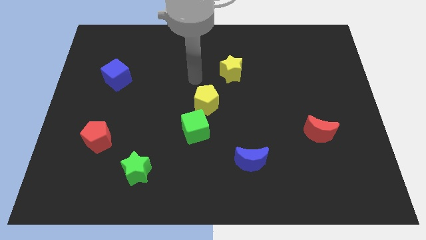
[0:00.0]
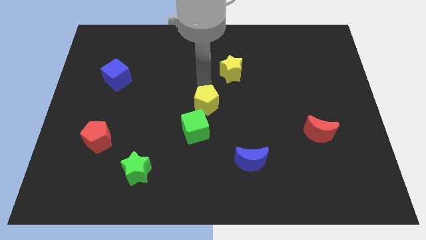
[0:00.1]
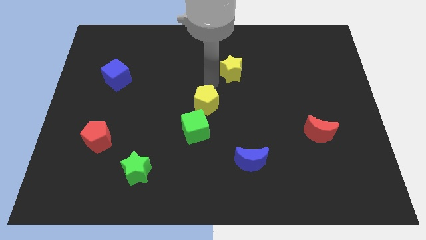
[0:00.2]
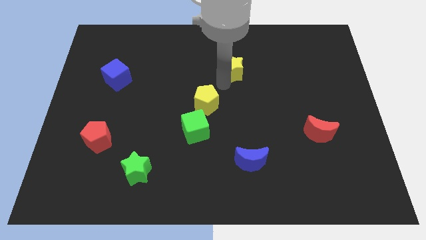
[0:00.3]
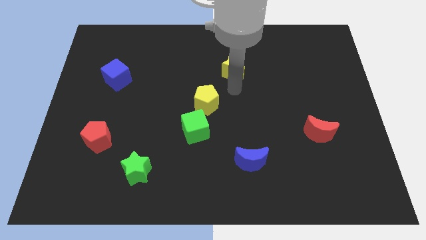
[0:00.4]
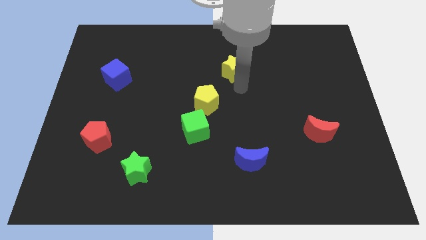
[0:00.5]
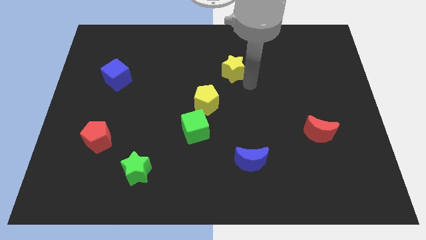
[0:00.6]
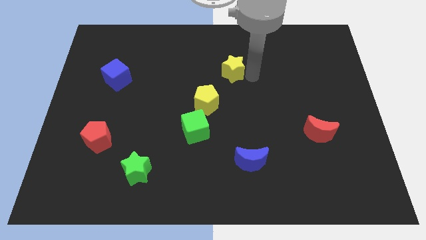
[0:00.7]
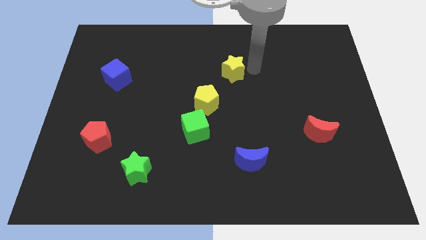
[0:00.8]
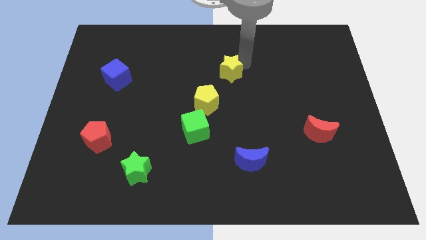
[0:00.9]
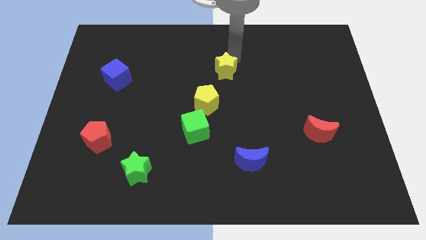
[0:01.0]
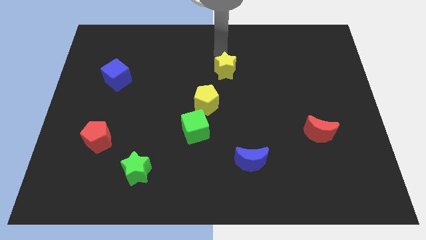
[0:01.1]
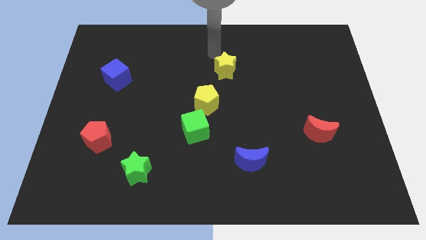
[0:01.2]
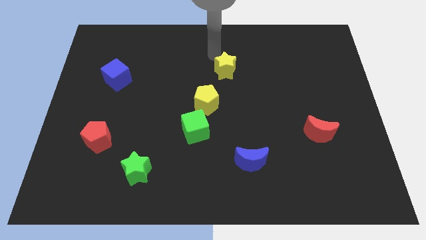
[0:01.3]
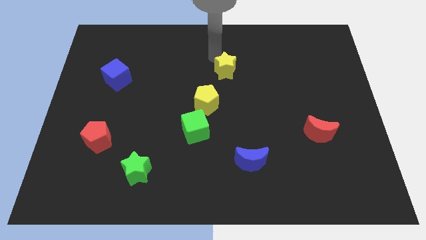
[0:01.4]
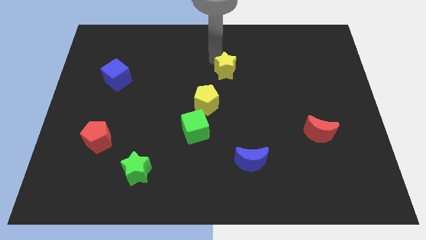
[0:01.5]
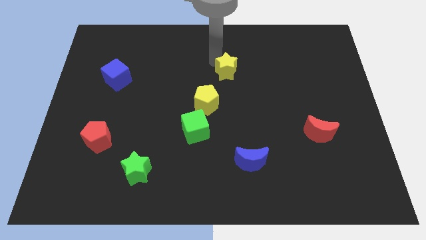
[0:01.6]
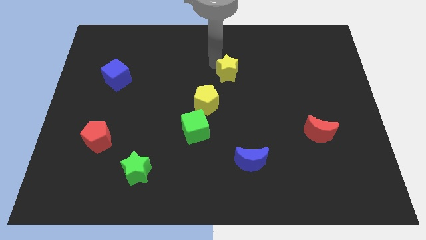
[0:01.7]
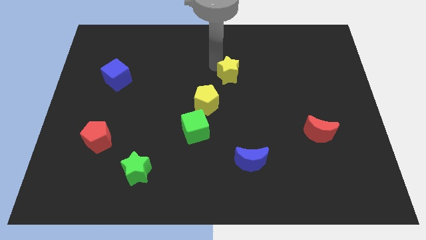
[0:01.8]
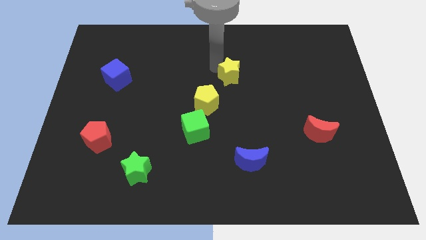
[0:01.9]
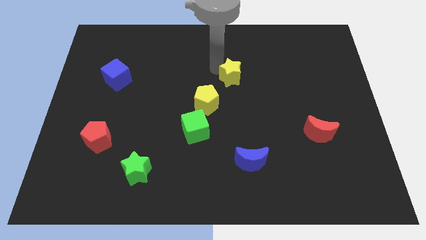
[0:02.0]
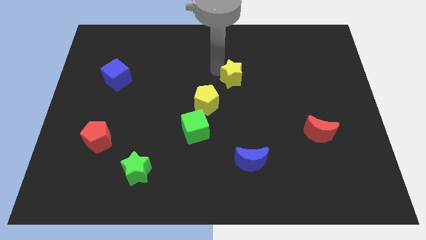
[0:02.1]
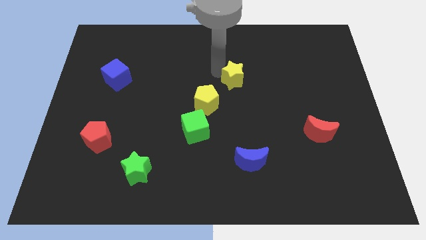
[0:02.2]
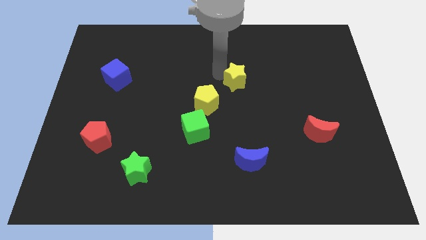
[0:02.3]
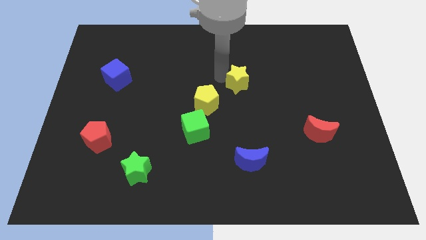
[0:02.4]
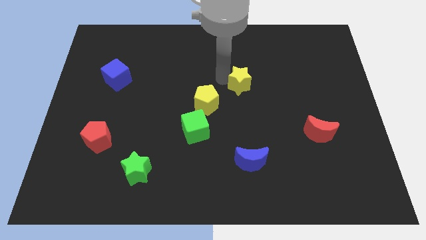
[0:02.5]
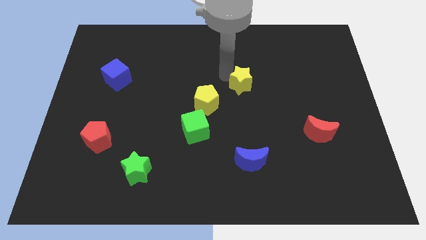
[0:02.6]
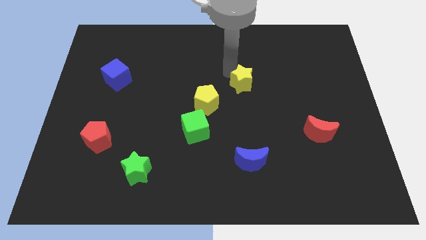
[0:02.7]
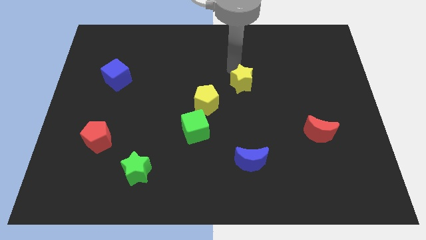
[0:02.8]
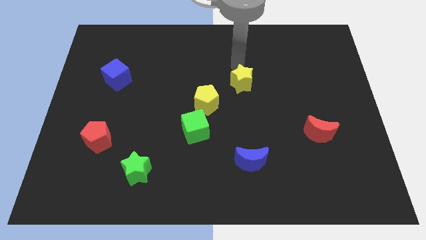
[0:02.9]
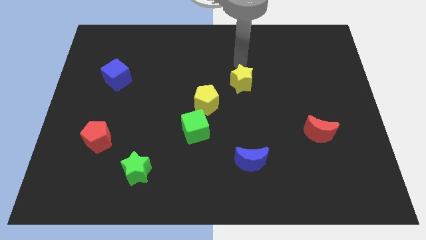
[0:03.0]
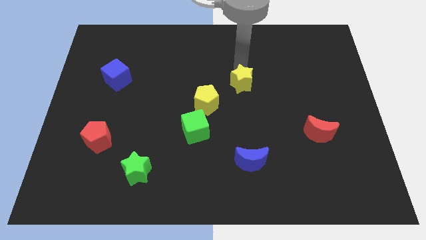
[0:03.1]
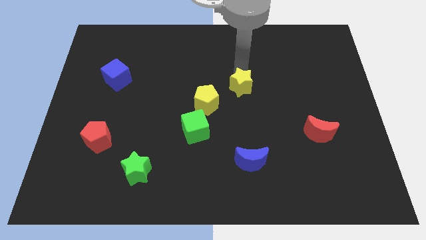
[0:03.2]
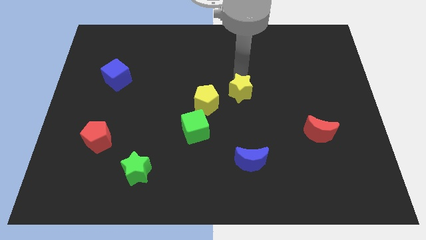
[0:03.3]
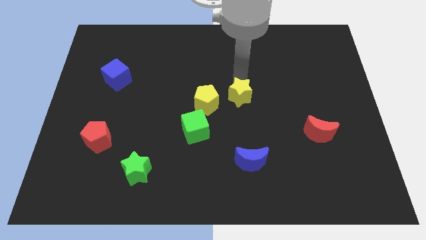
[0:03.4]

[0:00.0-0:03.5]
push the yellow star somewhat downwards

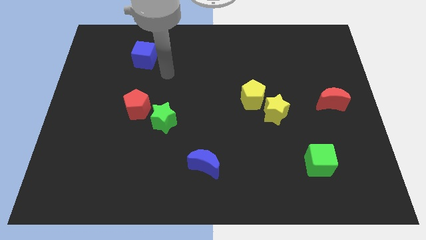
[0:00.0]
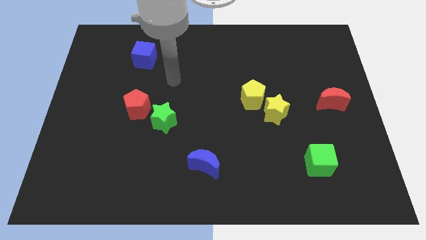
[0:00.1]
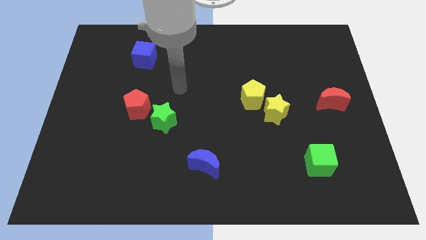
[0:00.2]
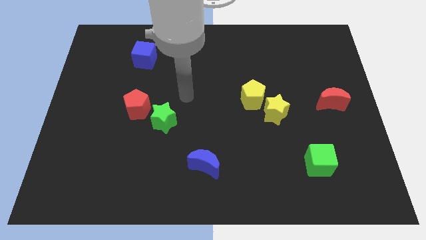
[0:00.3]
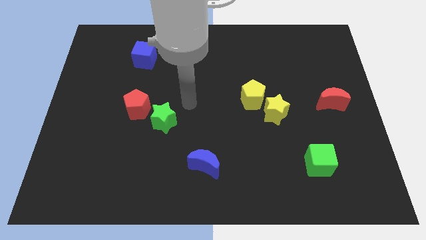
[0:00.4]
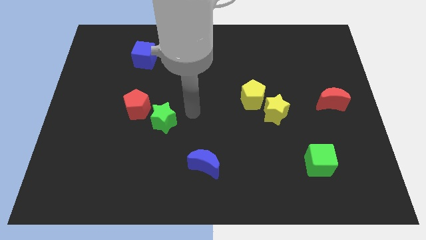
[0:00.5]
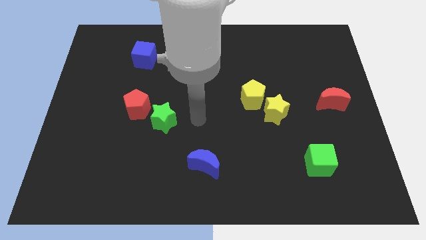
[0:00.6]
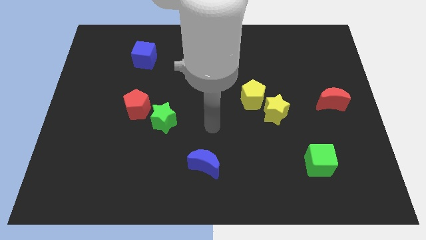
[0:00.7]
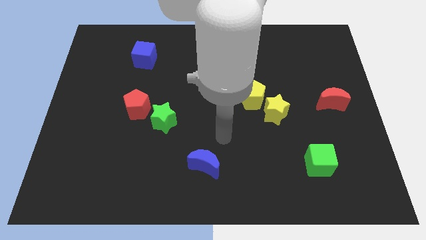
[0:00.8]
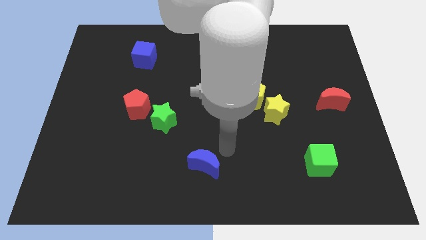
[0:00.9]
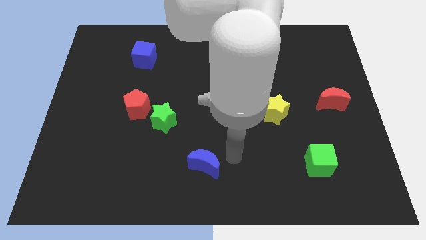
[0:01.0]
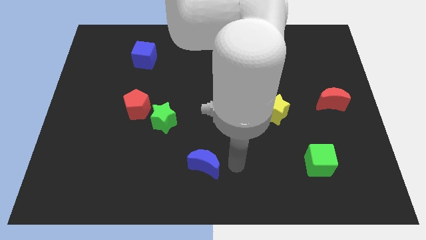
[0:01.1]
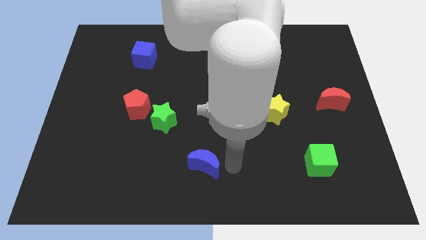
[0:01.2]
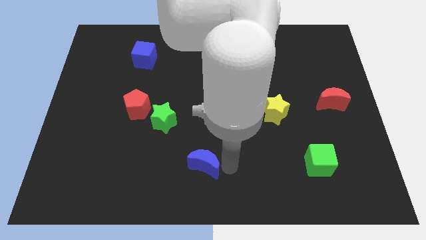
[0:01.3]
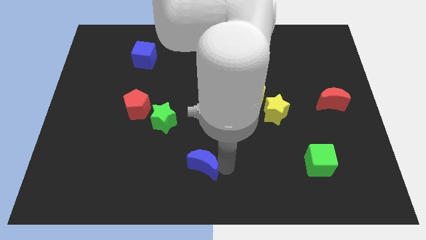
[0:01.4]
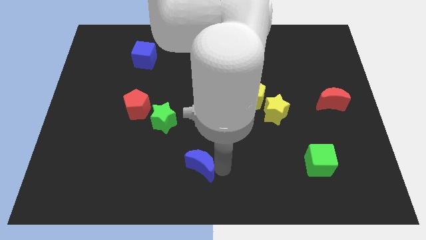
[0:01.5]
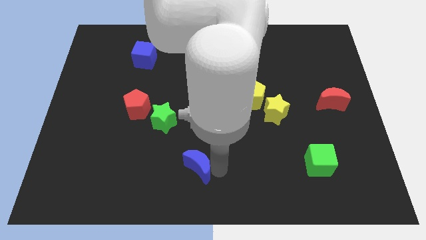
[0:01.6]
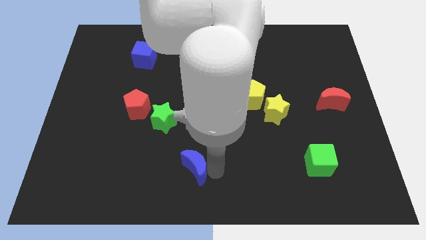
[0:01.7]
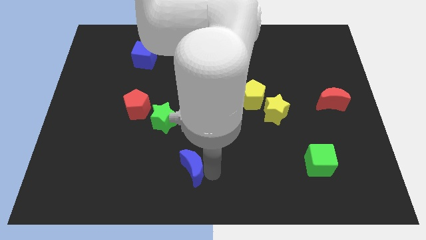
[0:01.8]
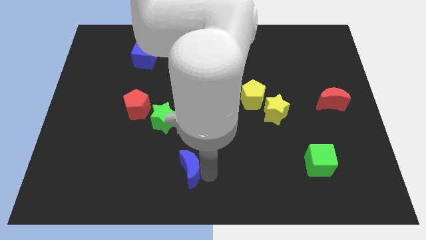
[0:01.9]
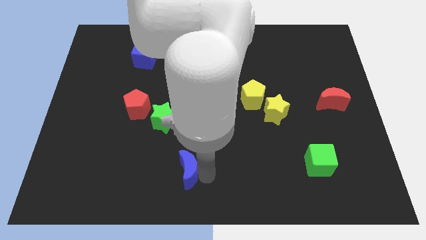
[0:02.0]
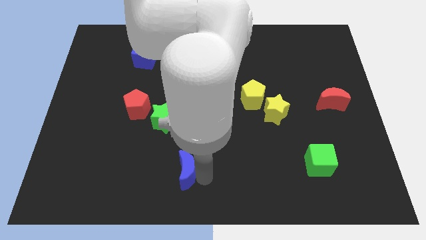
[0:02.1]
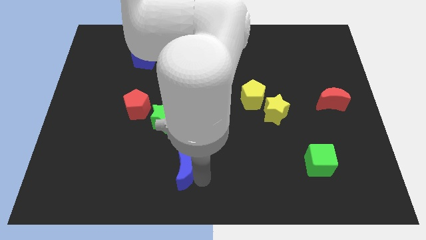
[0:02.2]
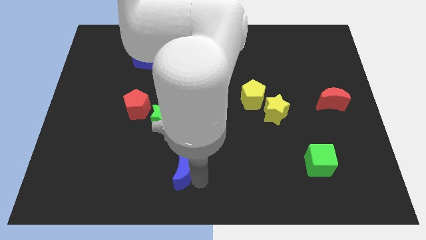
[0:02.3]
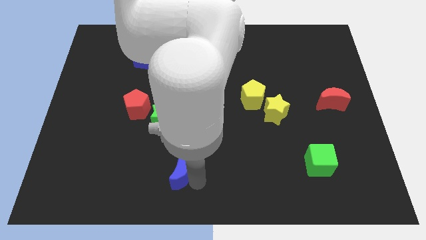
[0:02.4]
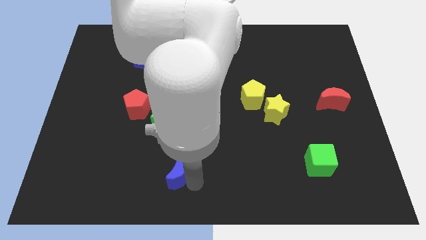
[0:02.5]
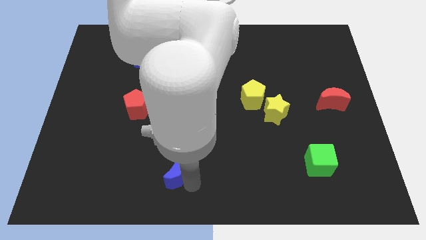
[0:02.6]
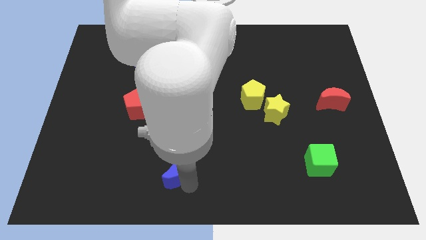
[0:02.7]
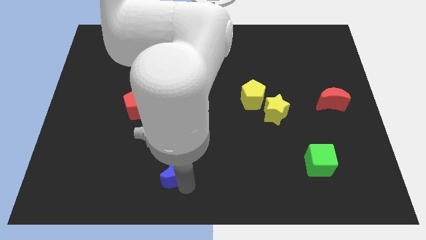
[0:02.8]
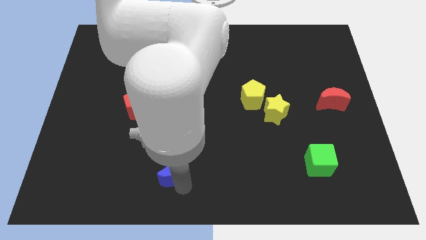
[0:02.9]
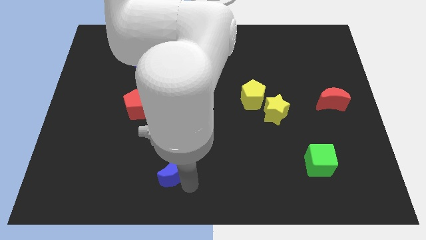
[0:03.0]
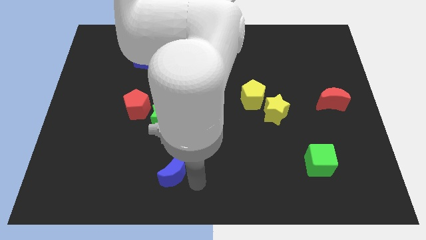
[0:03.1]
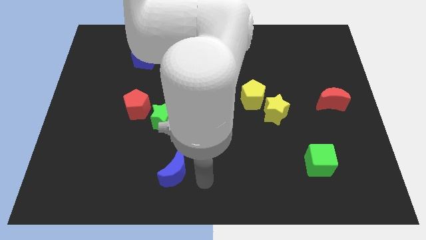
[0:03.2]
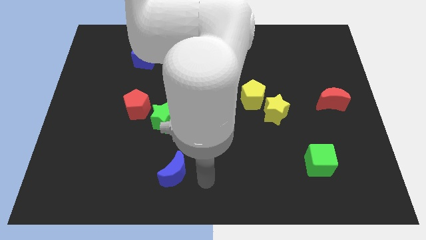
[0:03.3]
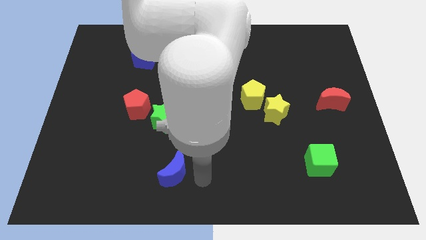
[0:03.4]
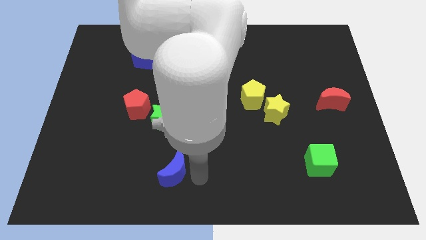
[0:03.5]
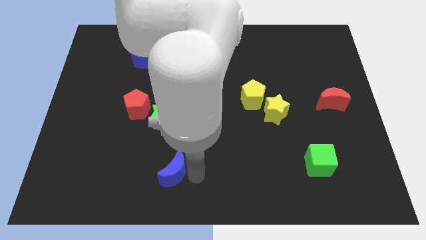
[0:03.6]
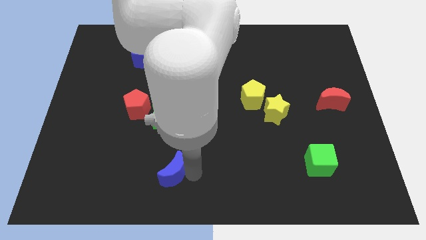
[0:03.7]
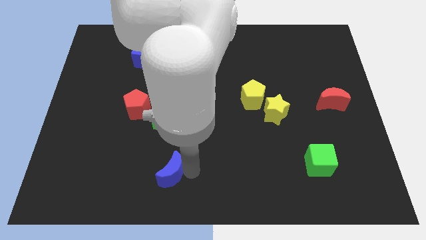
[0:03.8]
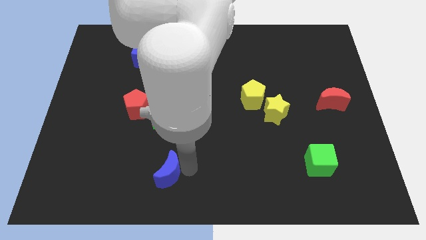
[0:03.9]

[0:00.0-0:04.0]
slightly move the blue moon left

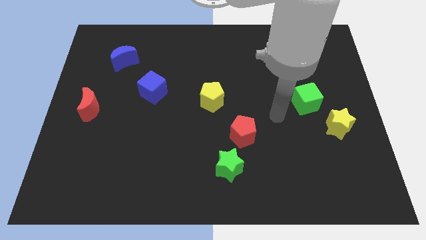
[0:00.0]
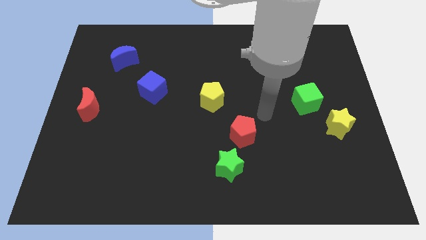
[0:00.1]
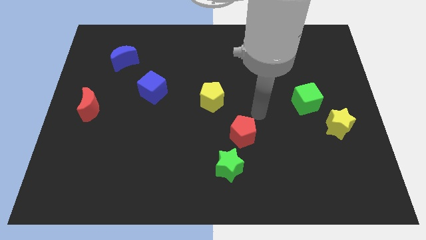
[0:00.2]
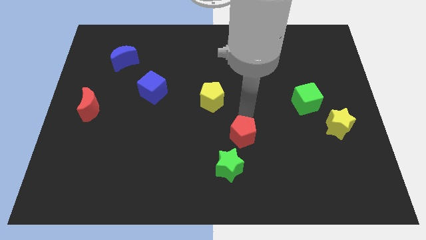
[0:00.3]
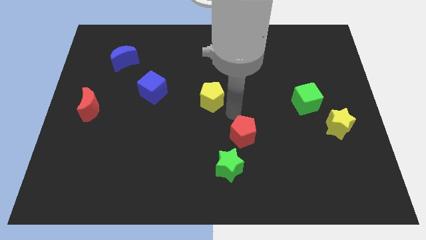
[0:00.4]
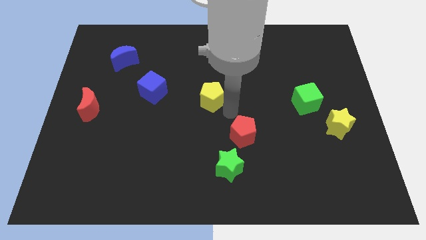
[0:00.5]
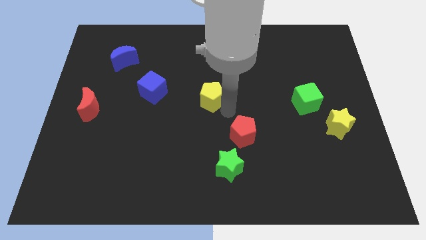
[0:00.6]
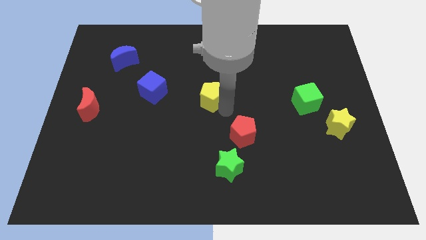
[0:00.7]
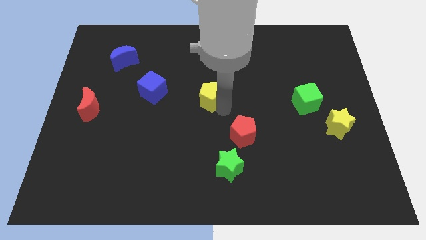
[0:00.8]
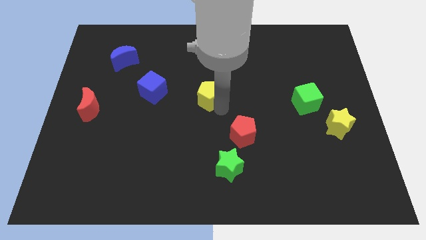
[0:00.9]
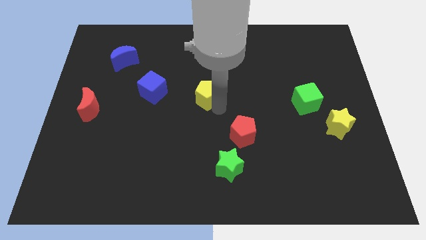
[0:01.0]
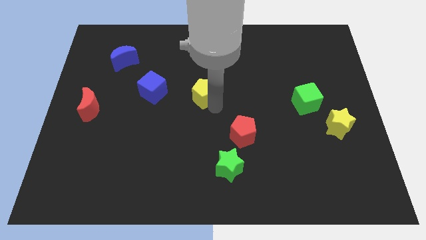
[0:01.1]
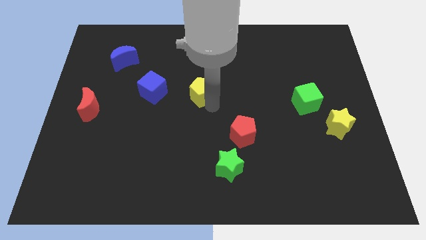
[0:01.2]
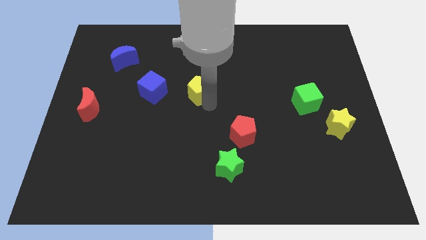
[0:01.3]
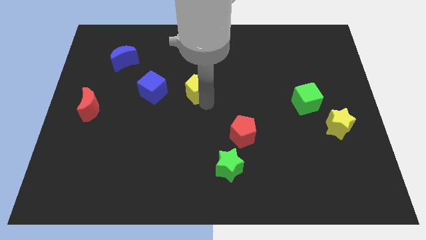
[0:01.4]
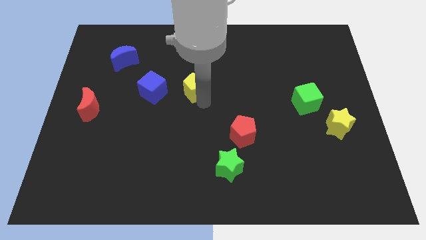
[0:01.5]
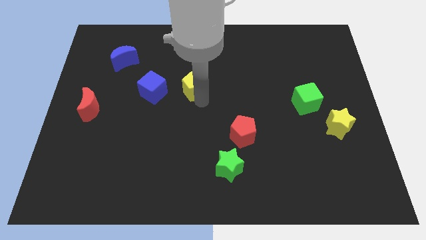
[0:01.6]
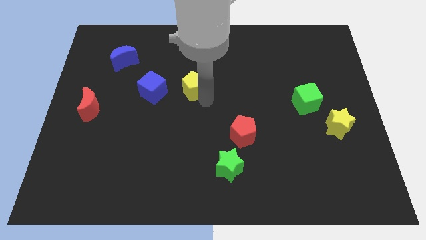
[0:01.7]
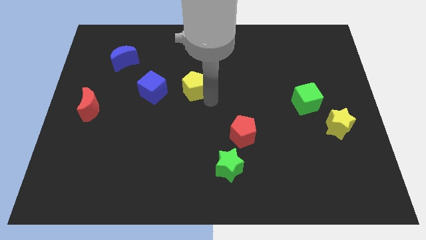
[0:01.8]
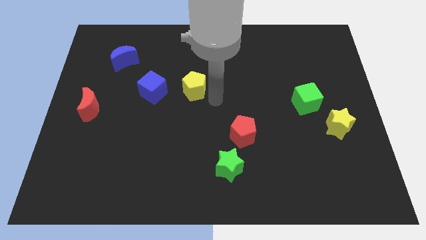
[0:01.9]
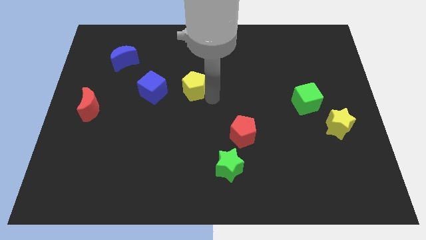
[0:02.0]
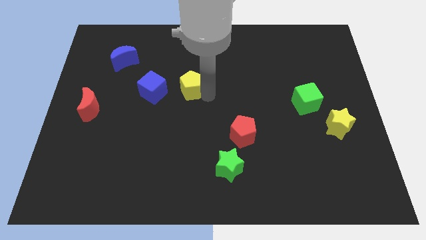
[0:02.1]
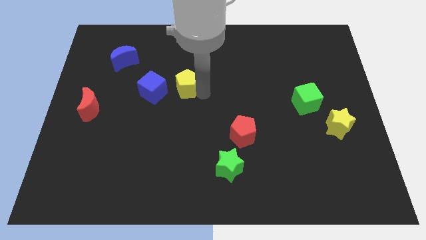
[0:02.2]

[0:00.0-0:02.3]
slightly push the yellow pentagon diagonally upwards and to the left
